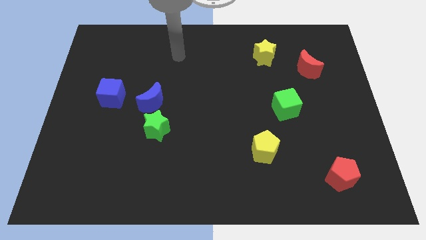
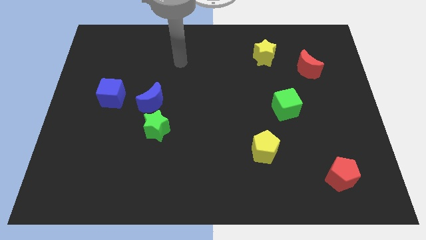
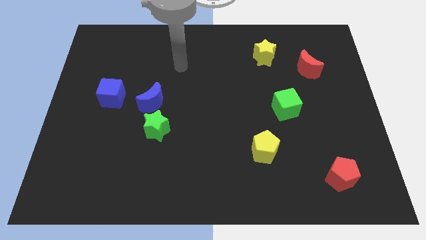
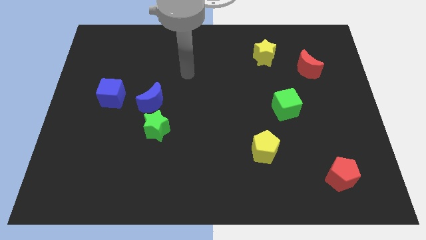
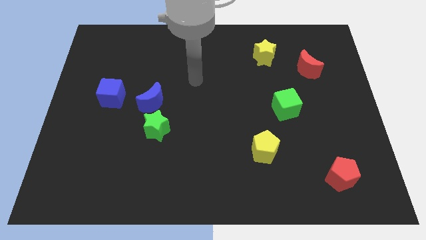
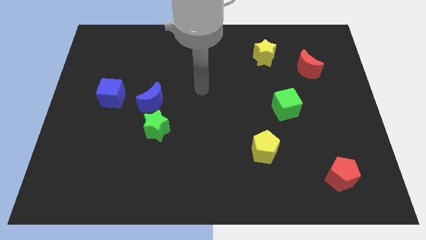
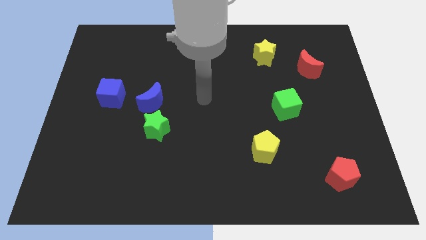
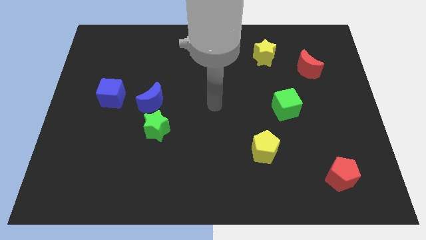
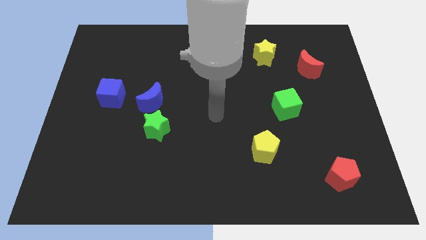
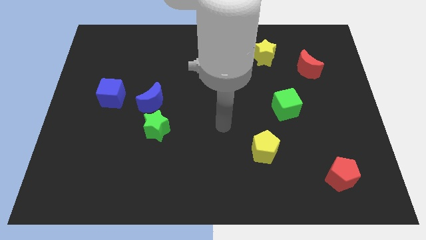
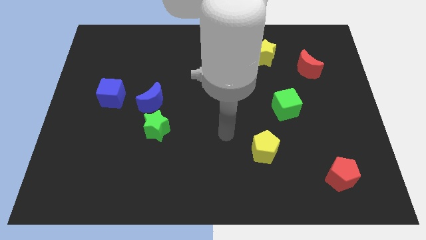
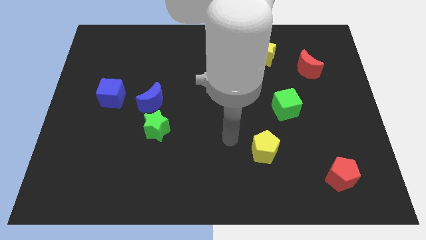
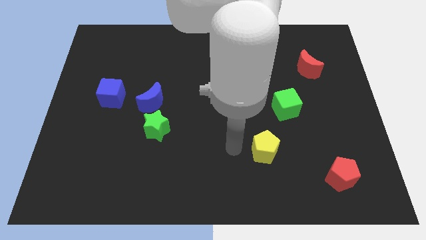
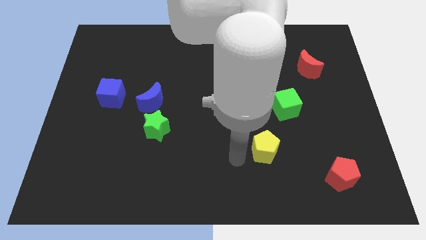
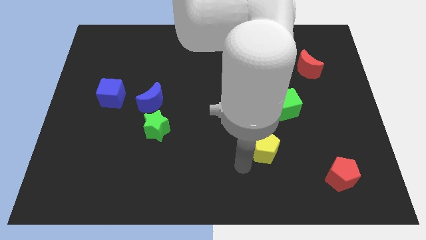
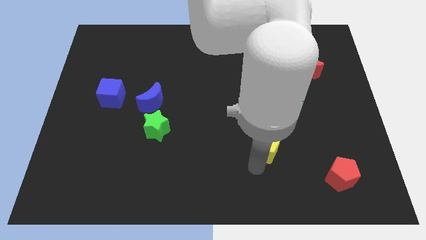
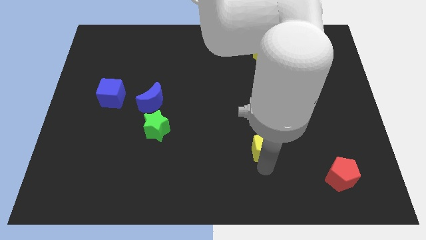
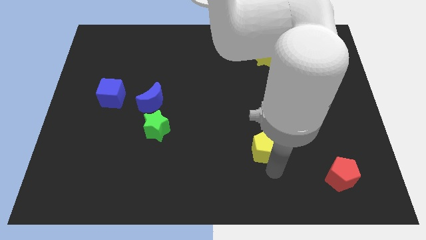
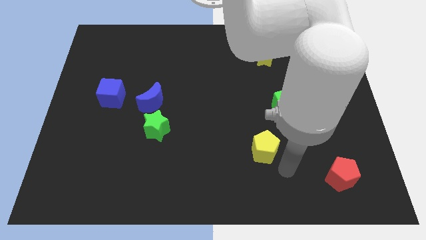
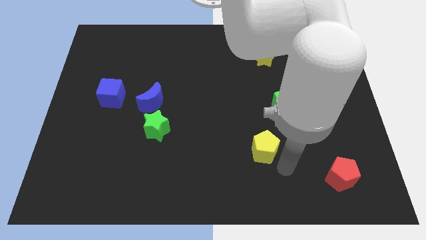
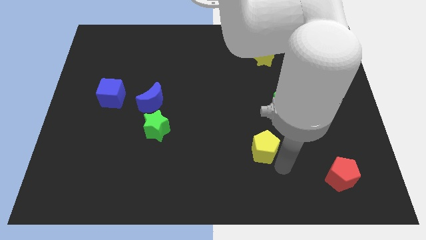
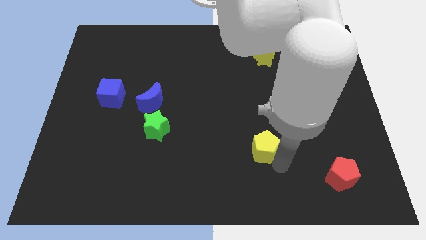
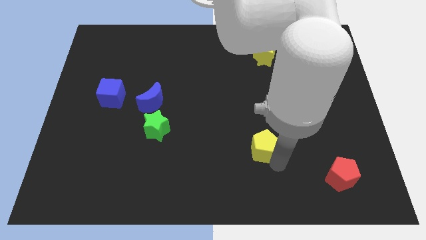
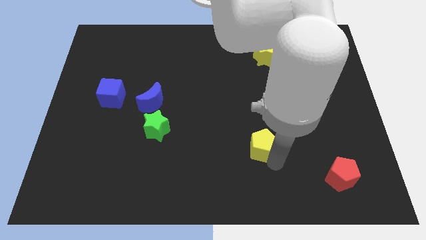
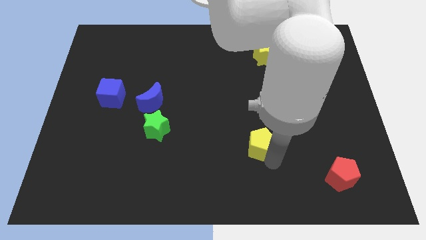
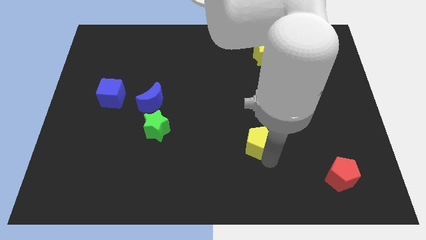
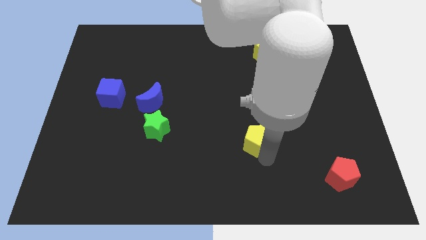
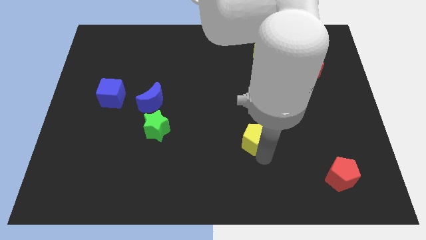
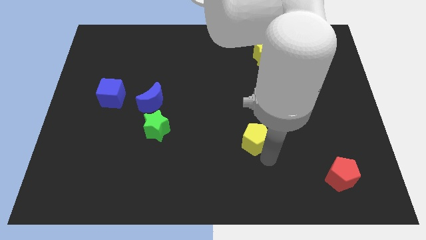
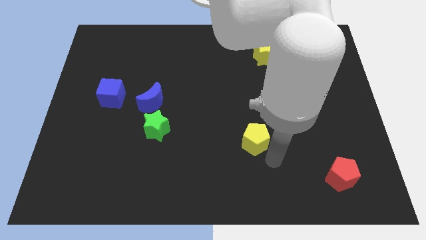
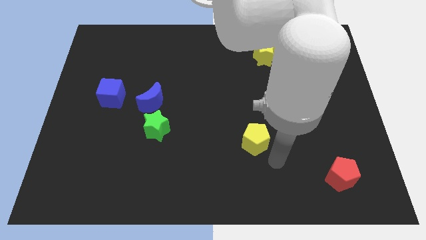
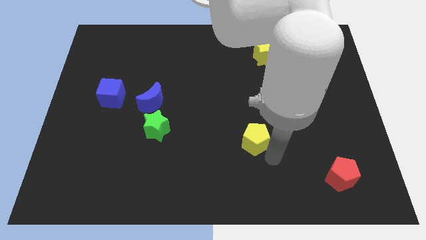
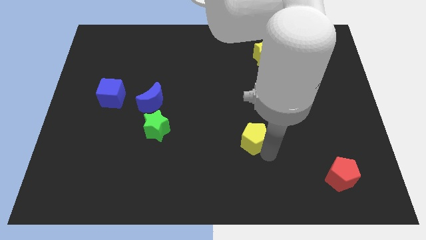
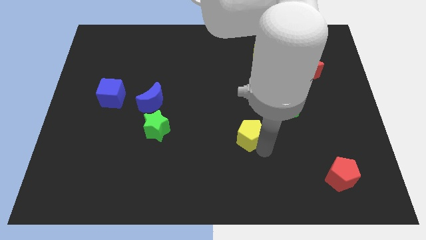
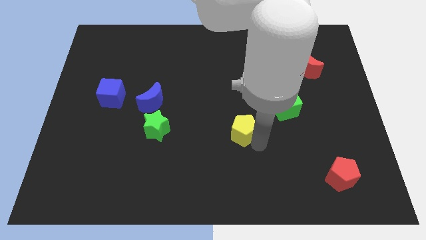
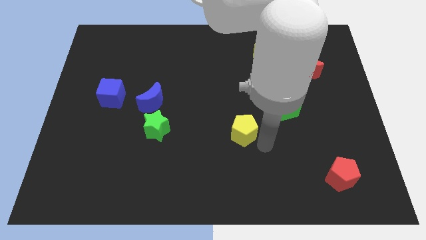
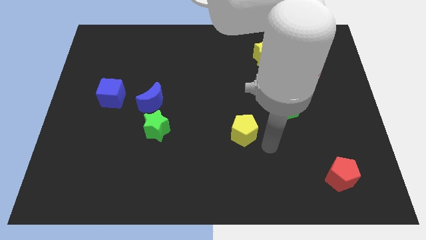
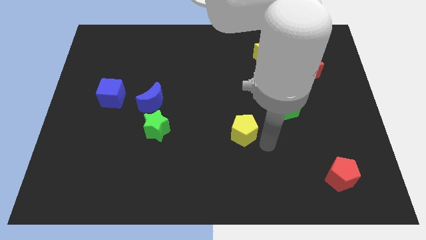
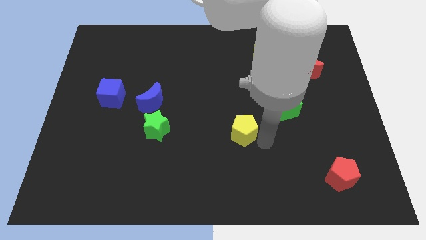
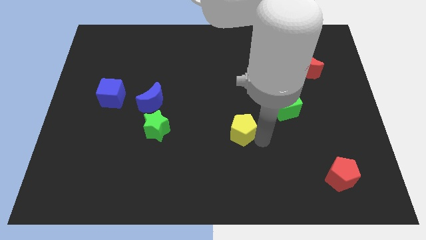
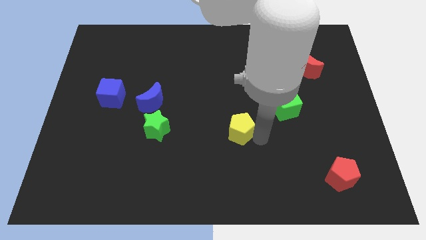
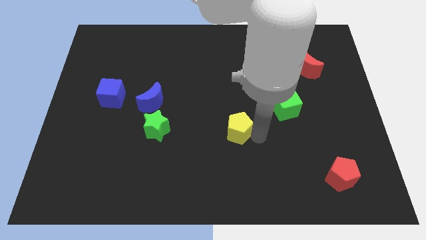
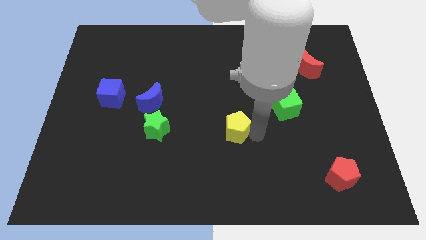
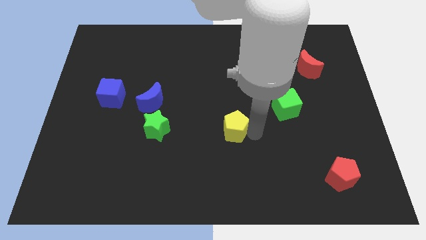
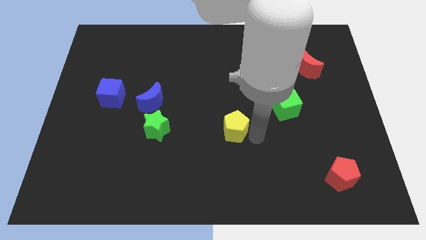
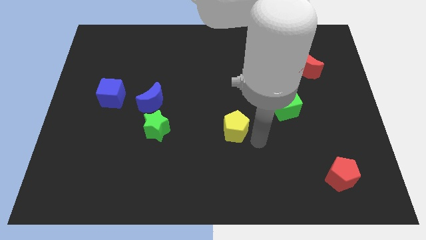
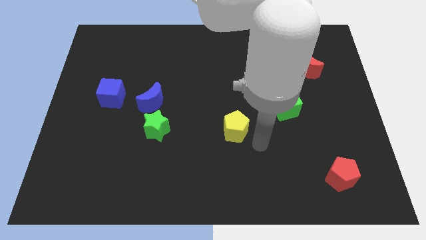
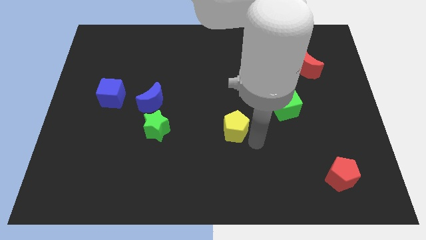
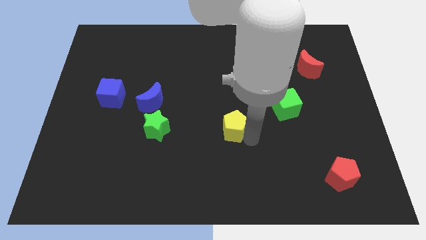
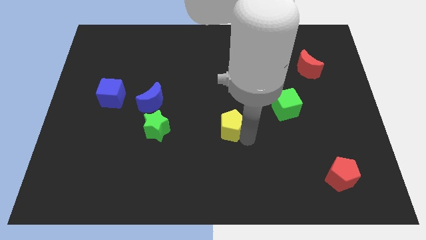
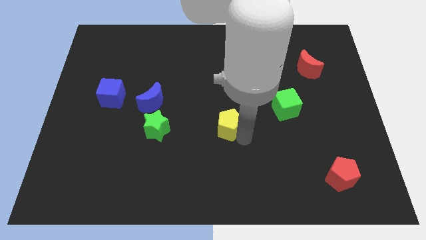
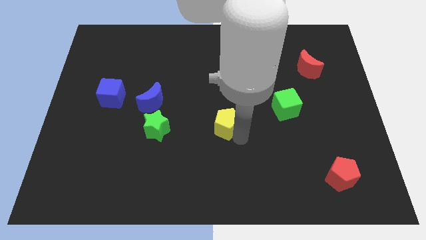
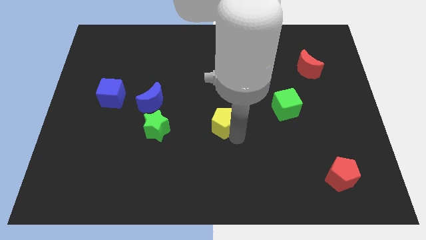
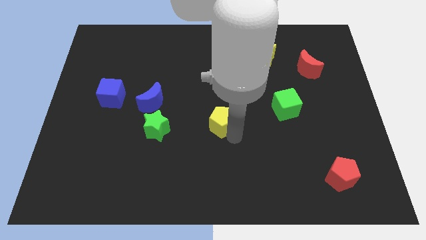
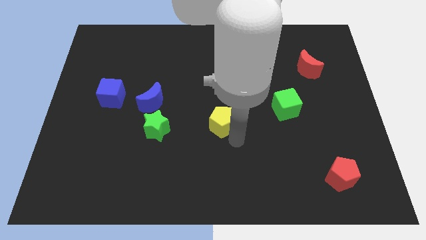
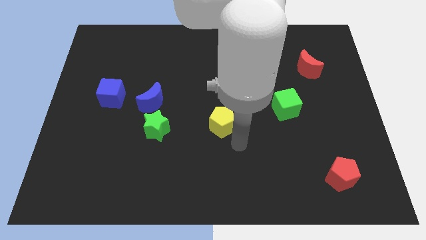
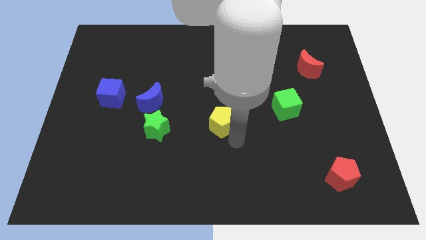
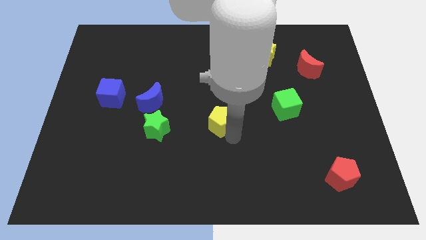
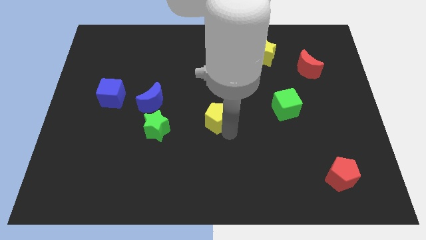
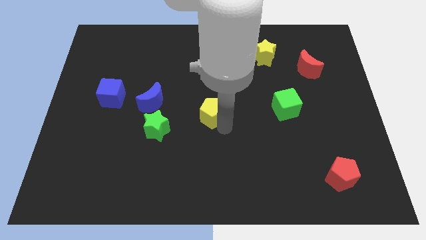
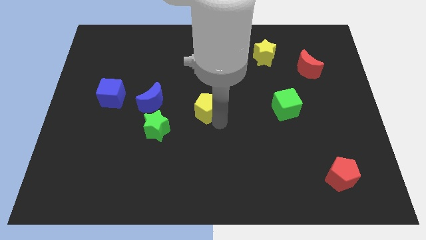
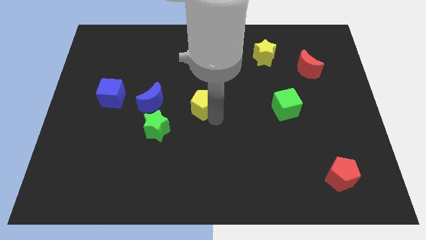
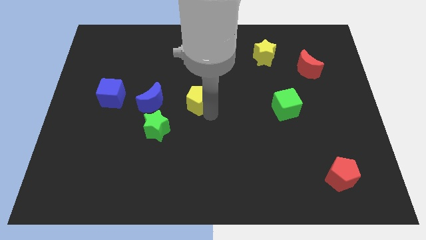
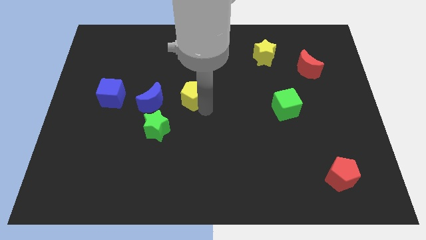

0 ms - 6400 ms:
push the yellow pentagon up and left diagonally

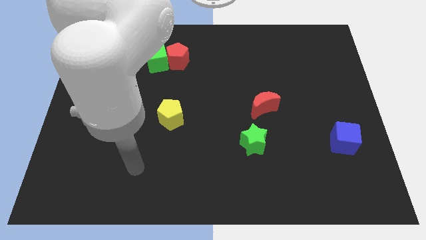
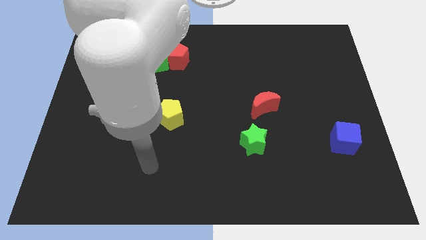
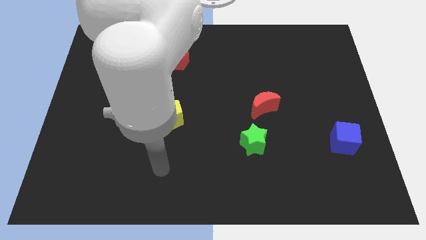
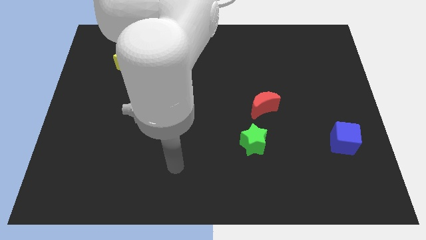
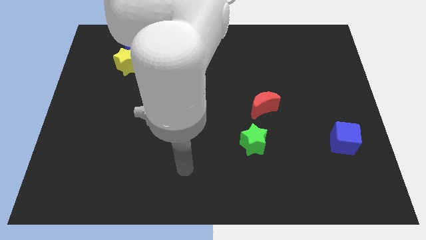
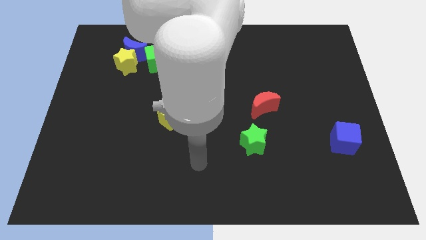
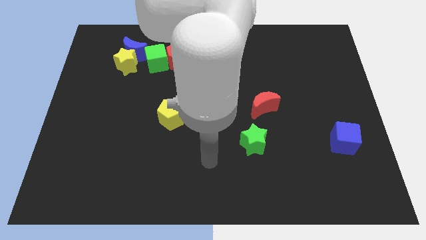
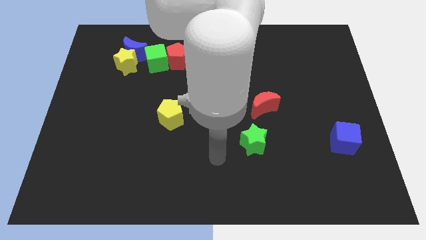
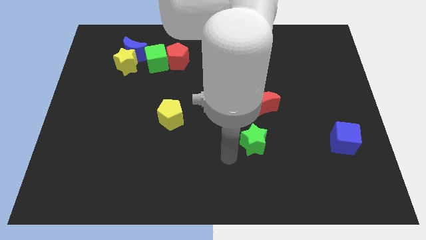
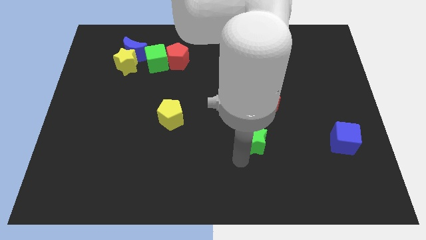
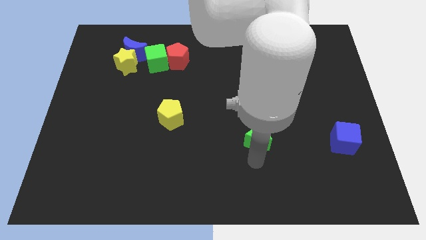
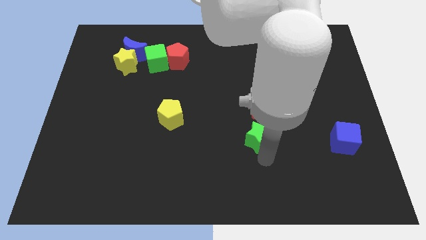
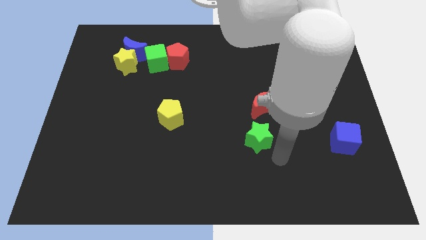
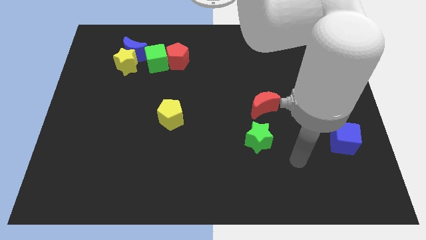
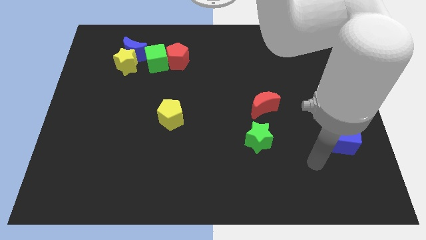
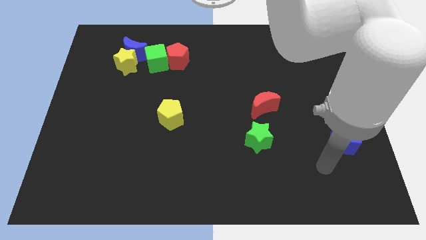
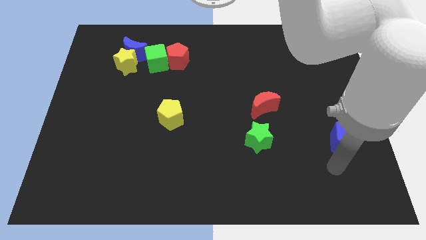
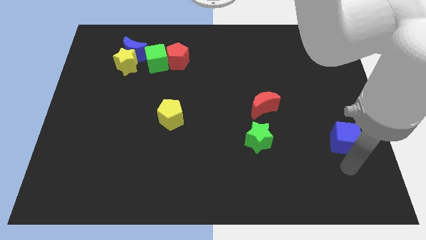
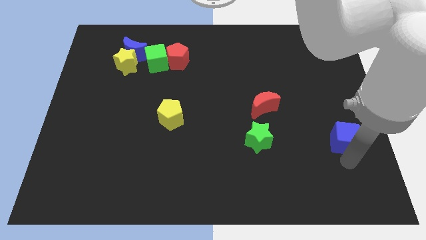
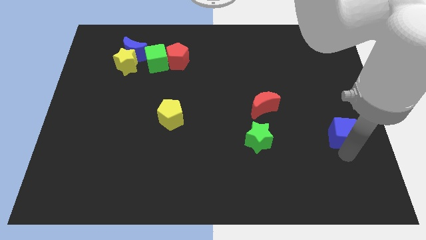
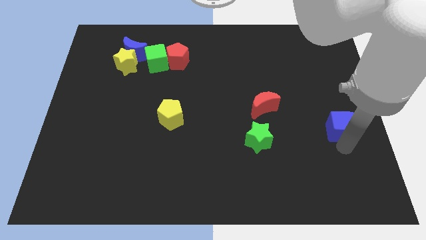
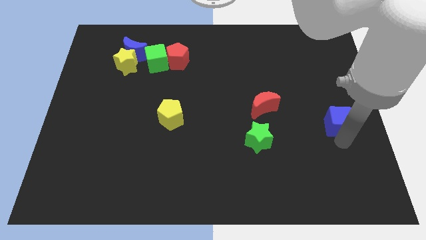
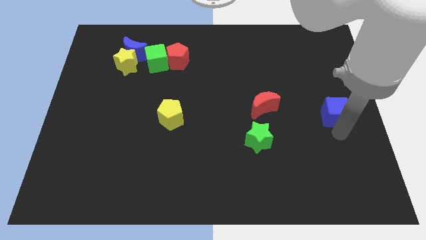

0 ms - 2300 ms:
push the blue cube a little bit upwards
